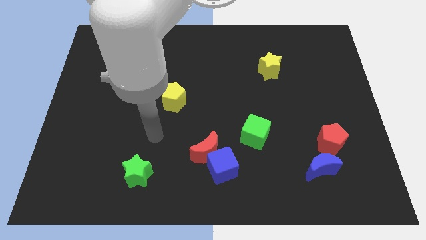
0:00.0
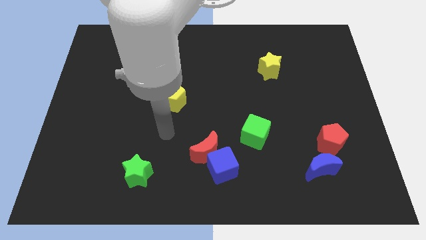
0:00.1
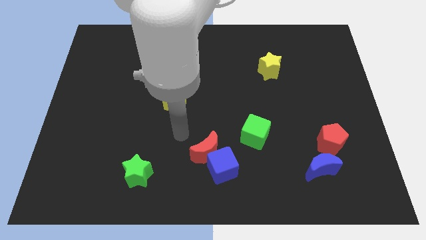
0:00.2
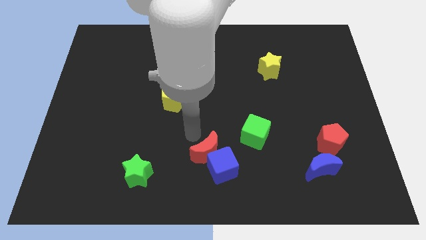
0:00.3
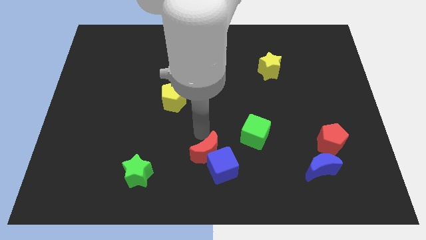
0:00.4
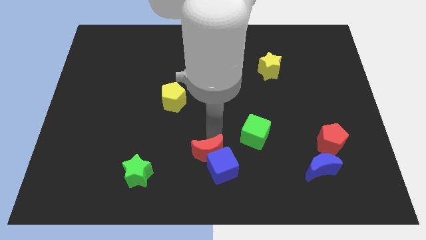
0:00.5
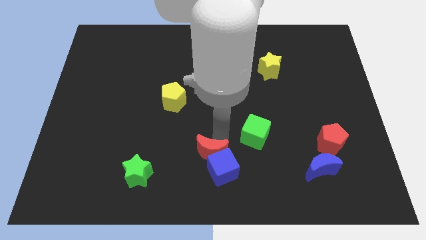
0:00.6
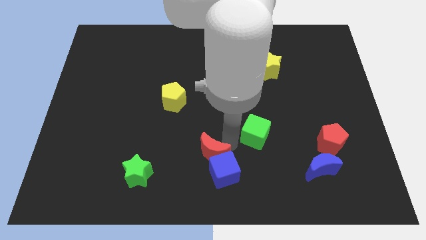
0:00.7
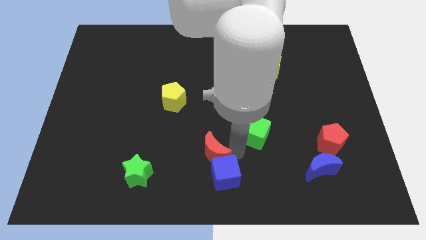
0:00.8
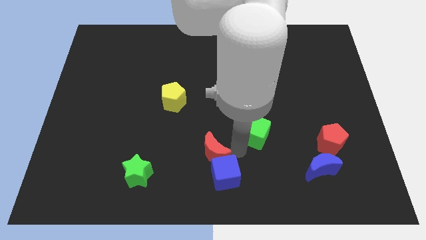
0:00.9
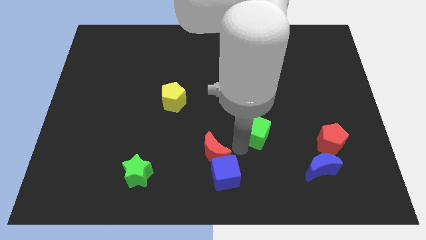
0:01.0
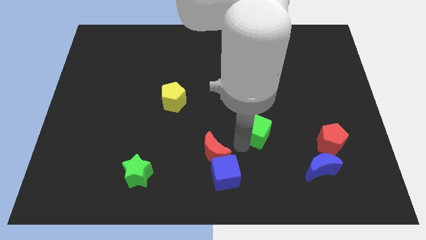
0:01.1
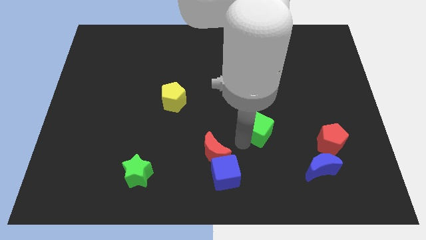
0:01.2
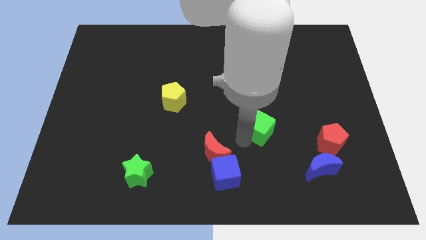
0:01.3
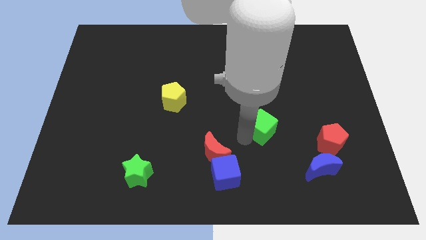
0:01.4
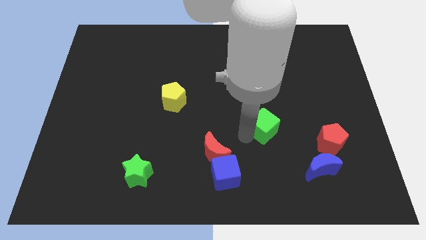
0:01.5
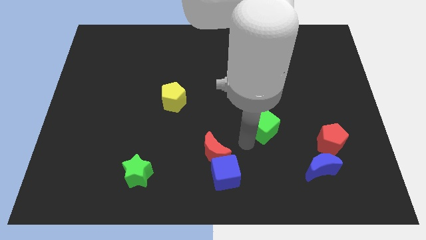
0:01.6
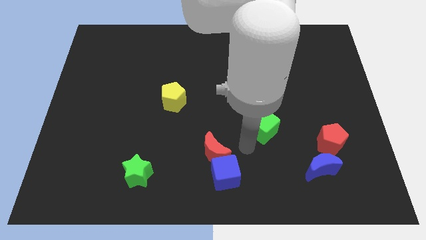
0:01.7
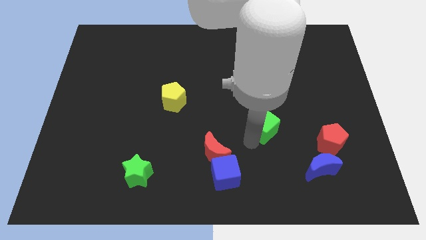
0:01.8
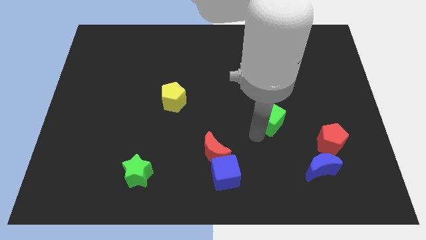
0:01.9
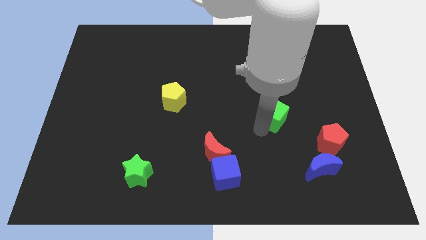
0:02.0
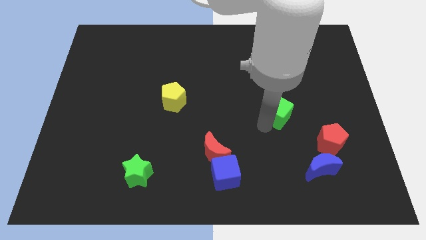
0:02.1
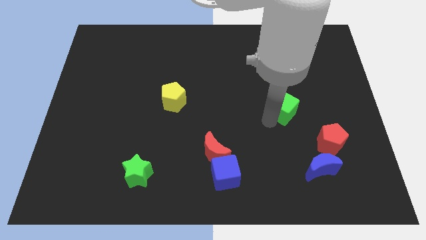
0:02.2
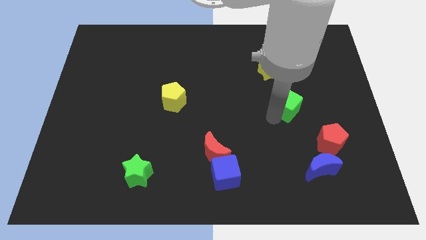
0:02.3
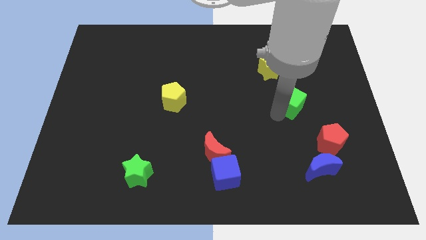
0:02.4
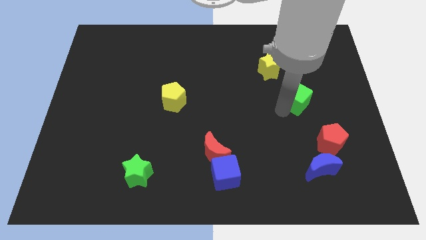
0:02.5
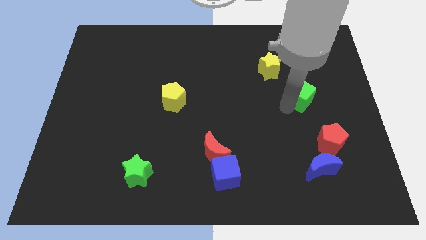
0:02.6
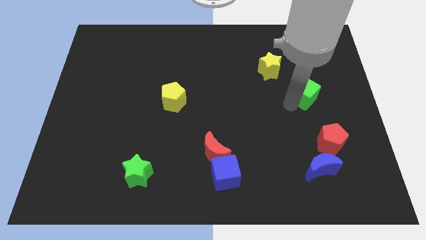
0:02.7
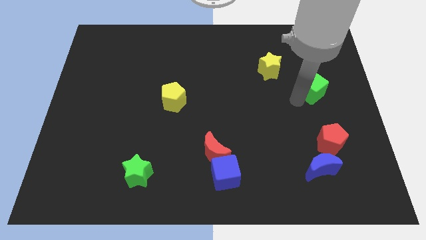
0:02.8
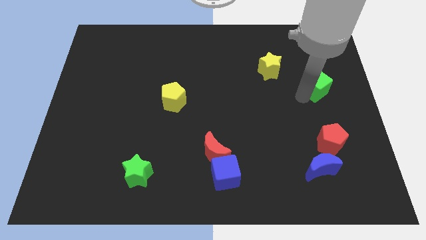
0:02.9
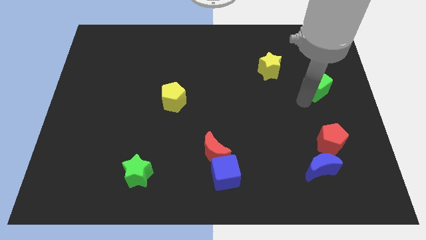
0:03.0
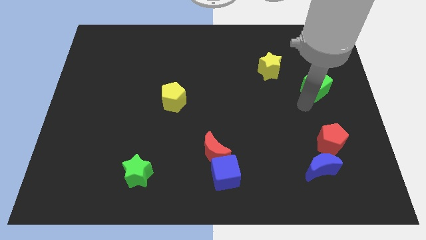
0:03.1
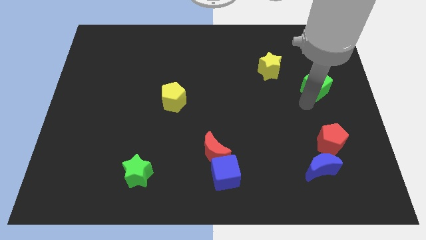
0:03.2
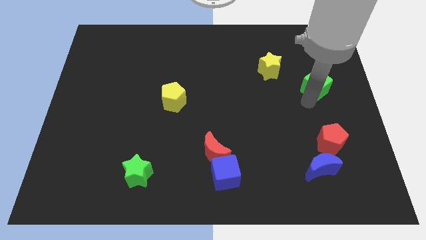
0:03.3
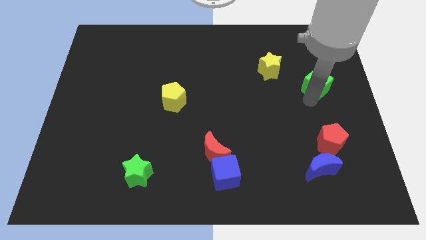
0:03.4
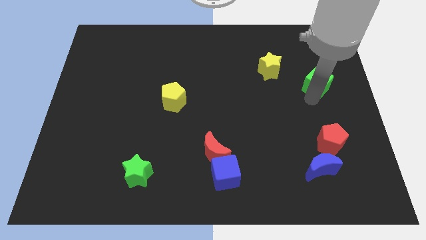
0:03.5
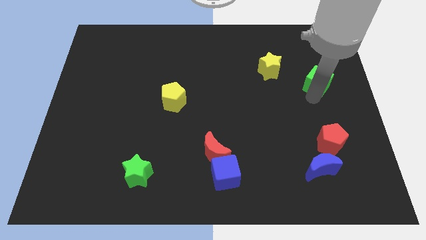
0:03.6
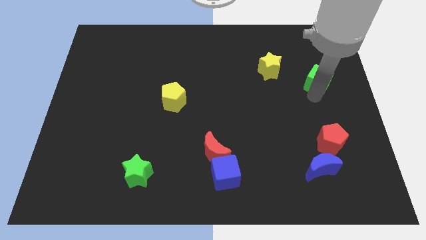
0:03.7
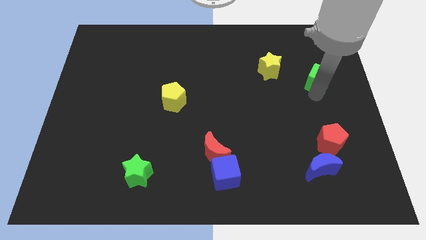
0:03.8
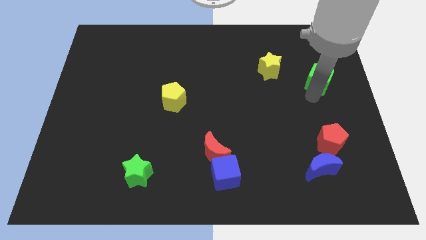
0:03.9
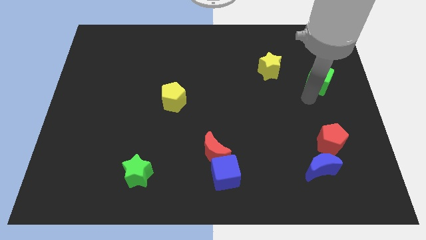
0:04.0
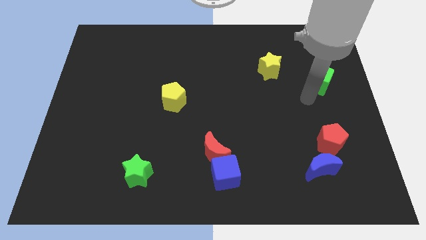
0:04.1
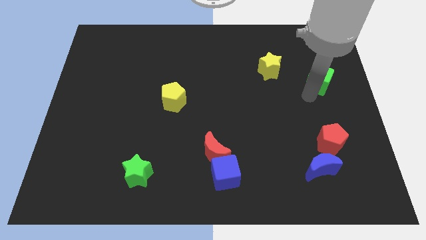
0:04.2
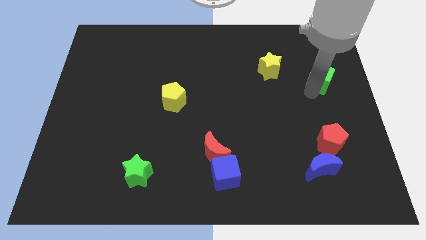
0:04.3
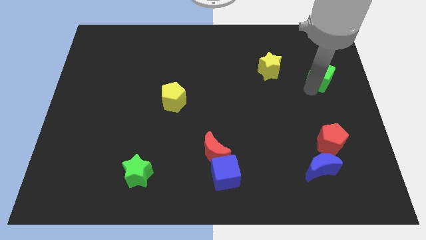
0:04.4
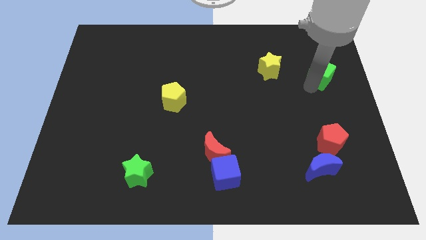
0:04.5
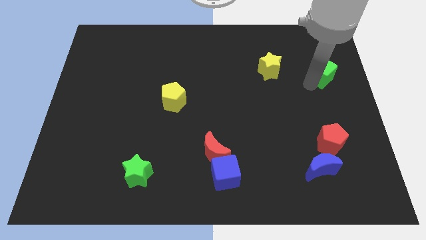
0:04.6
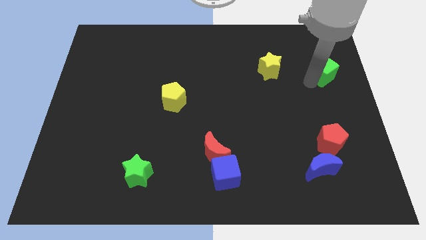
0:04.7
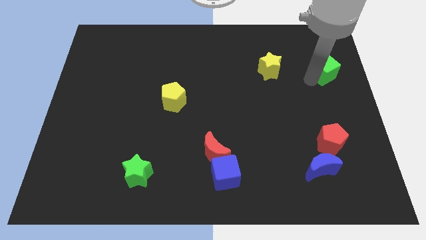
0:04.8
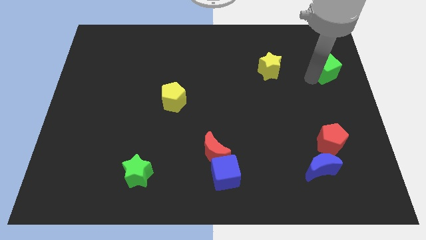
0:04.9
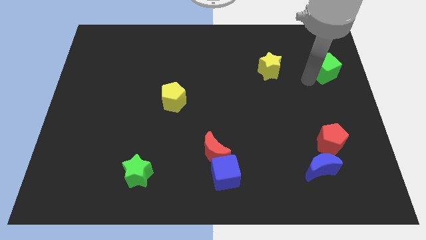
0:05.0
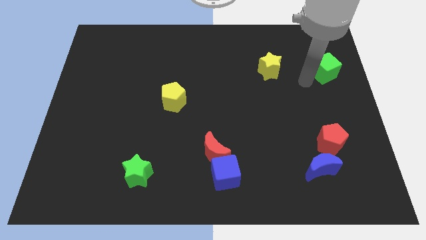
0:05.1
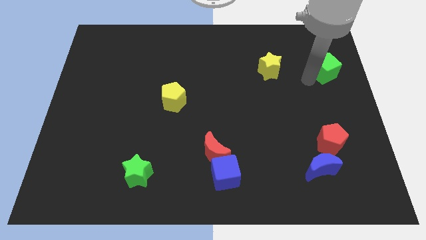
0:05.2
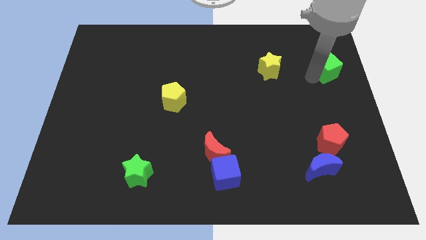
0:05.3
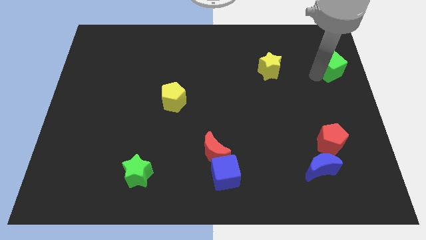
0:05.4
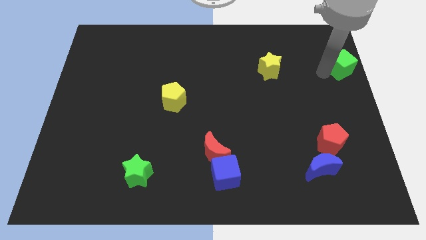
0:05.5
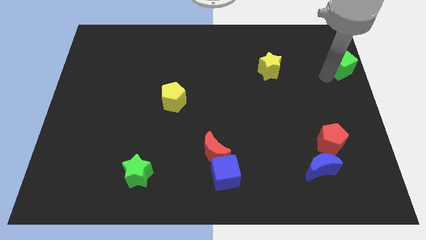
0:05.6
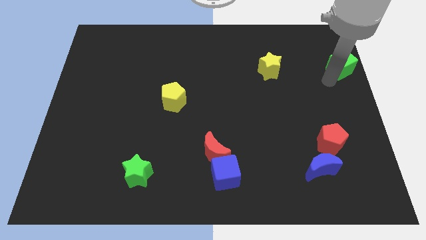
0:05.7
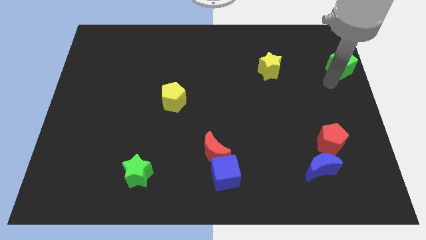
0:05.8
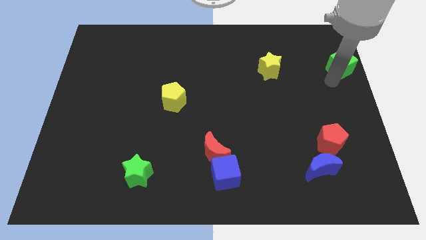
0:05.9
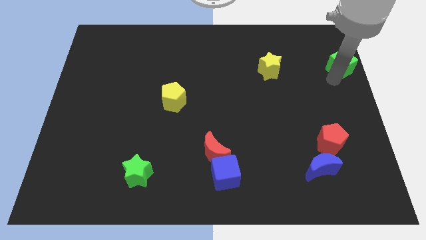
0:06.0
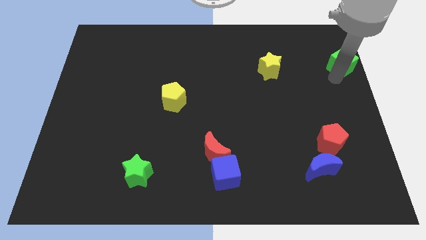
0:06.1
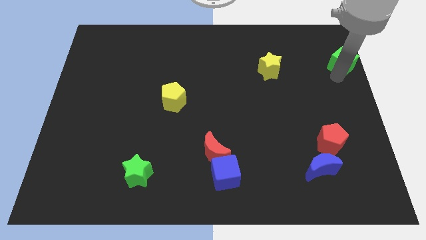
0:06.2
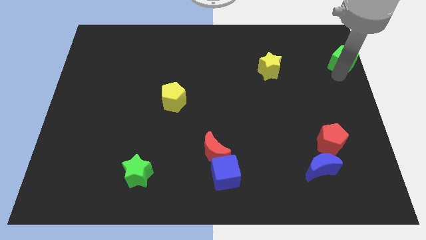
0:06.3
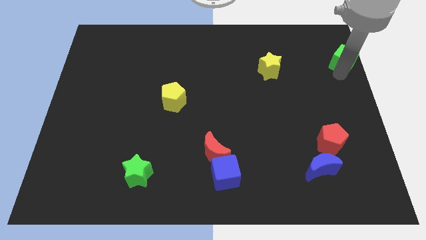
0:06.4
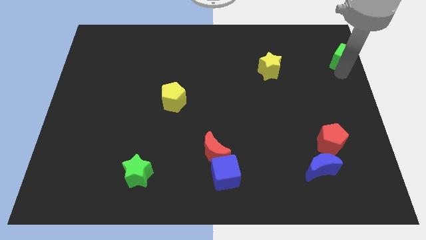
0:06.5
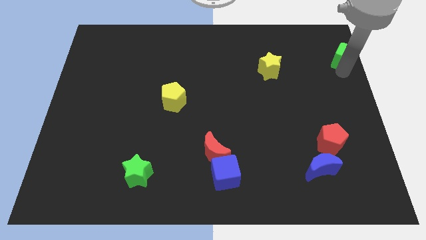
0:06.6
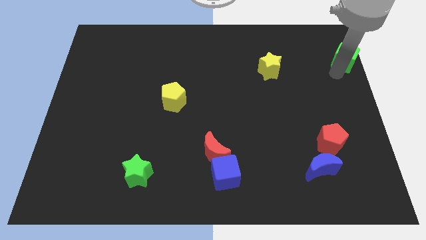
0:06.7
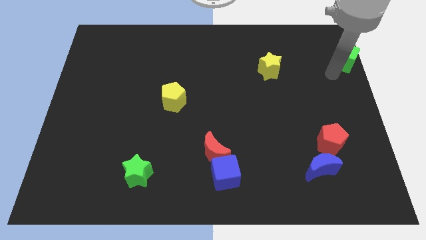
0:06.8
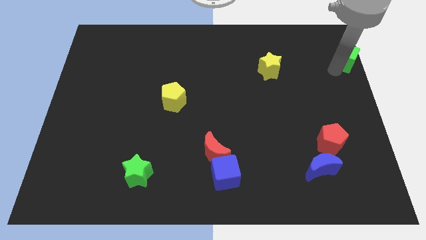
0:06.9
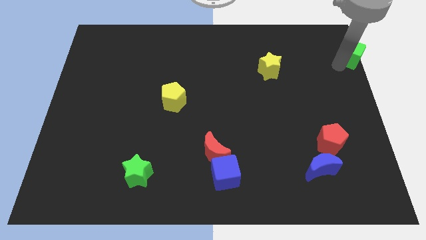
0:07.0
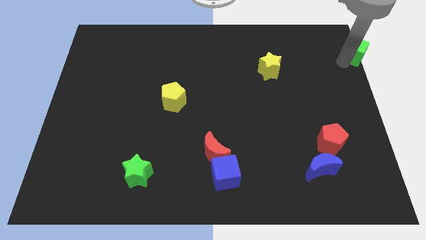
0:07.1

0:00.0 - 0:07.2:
slide the green cube to the top right corner
